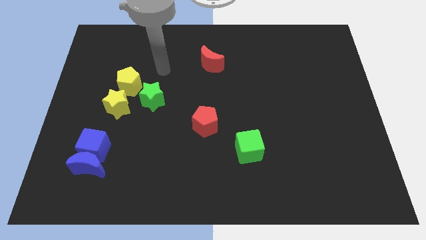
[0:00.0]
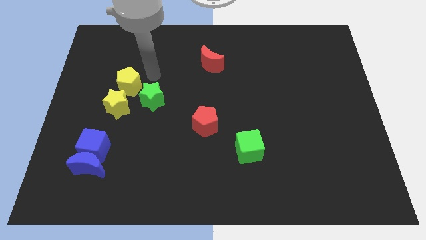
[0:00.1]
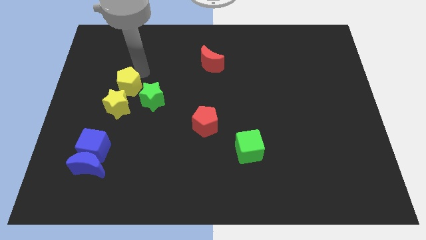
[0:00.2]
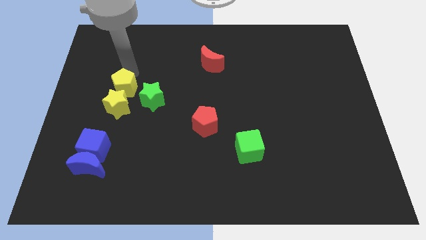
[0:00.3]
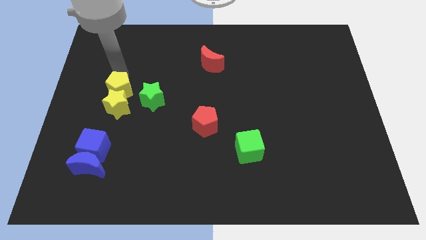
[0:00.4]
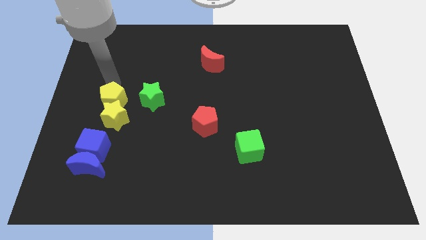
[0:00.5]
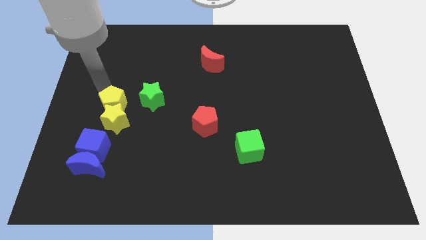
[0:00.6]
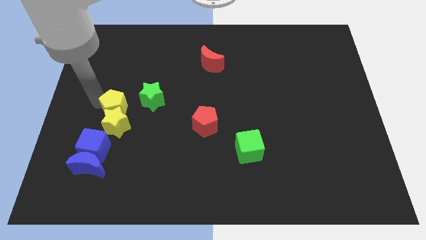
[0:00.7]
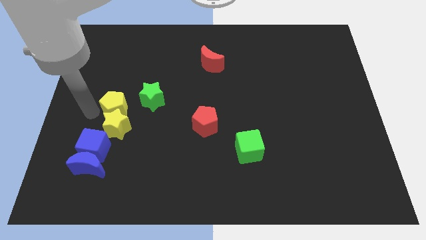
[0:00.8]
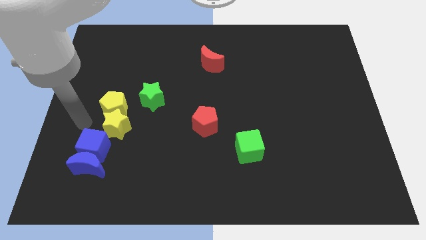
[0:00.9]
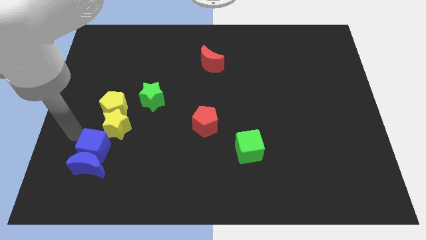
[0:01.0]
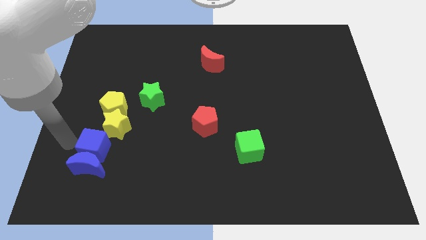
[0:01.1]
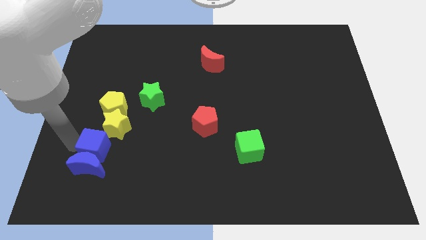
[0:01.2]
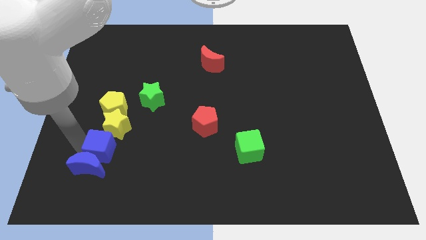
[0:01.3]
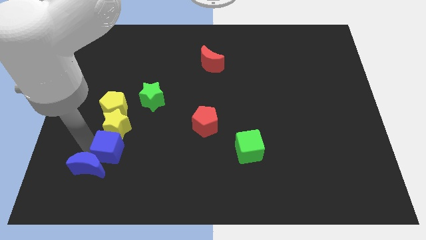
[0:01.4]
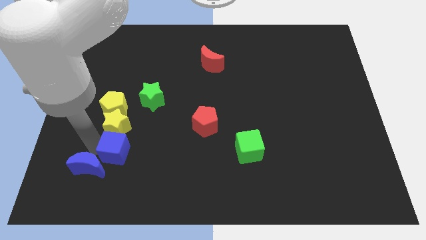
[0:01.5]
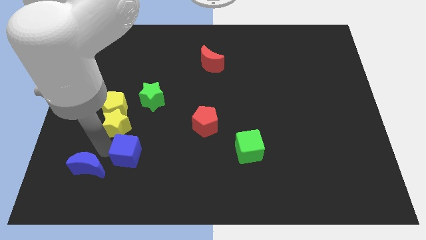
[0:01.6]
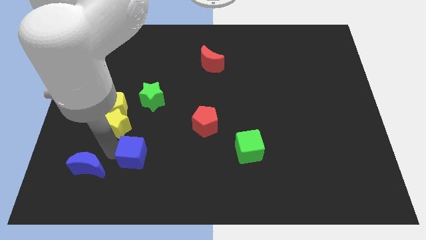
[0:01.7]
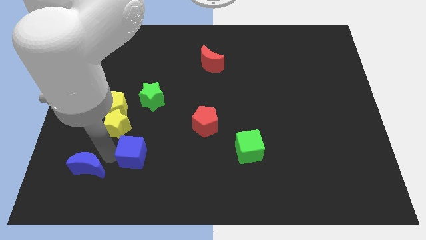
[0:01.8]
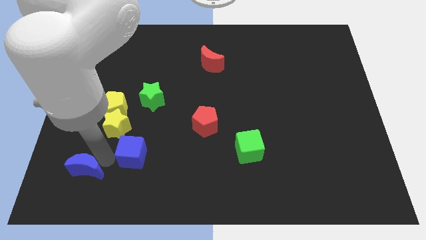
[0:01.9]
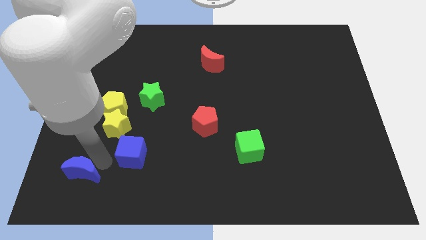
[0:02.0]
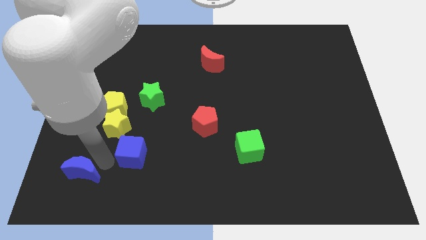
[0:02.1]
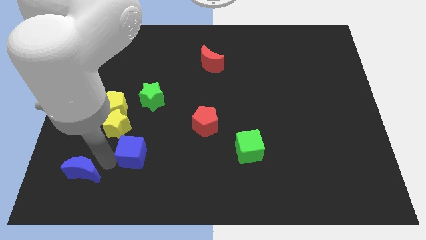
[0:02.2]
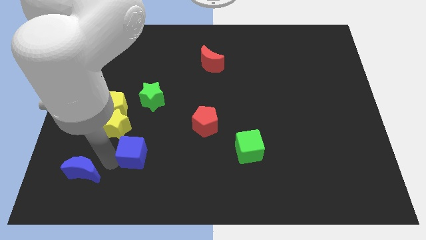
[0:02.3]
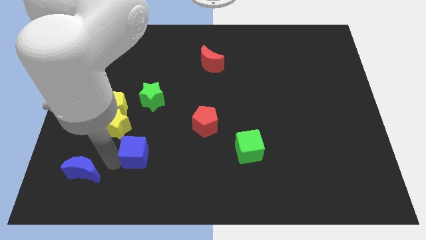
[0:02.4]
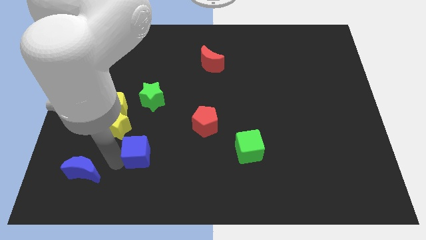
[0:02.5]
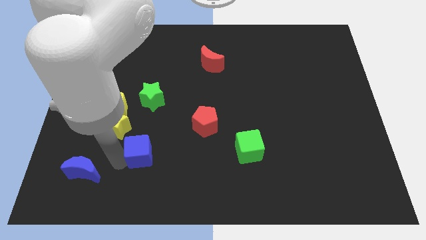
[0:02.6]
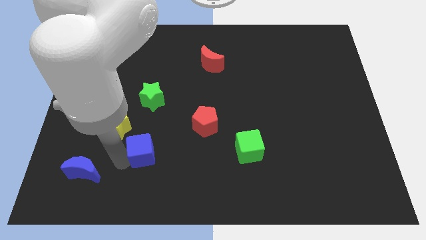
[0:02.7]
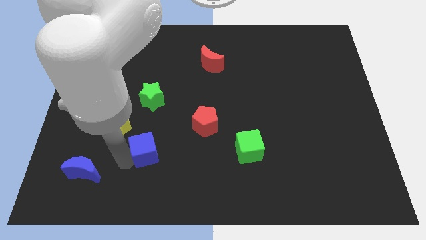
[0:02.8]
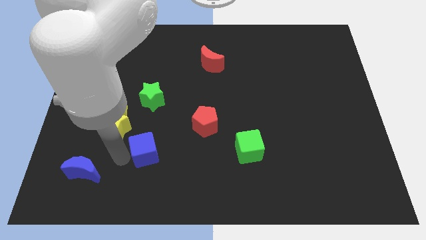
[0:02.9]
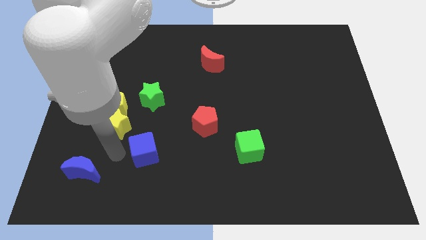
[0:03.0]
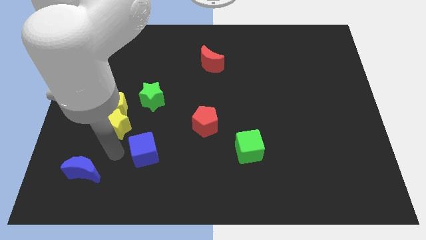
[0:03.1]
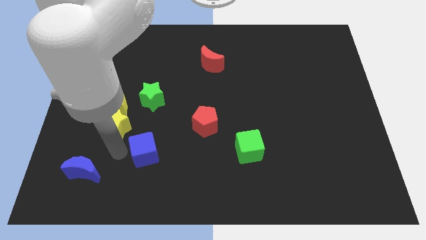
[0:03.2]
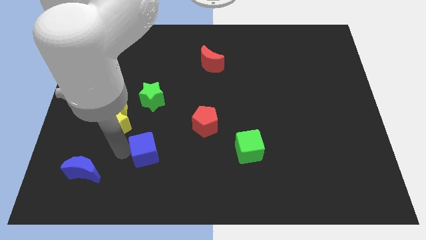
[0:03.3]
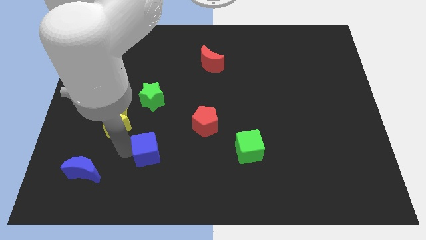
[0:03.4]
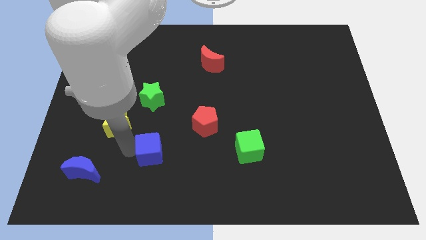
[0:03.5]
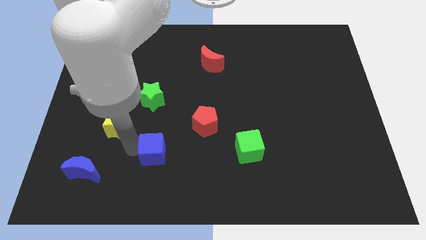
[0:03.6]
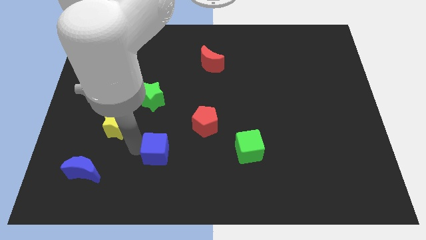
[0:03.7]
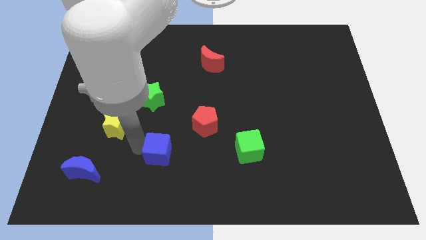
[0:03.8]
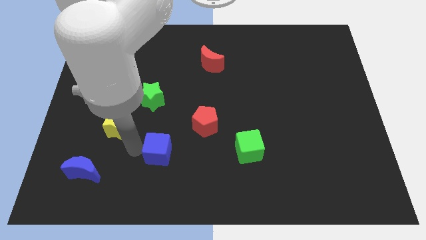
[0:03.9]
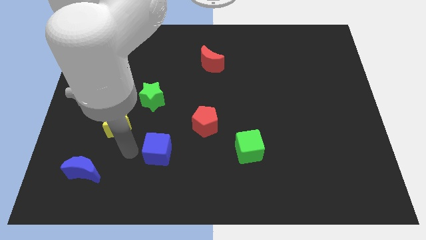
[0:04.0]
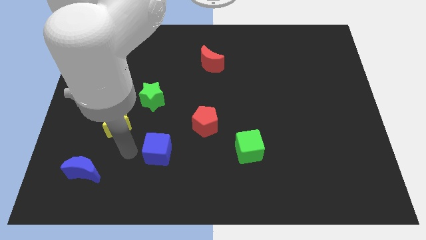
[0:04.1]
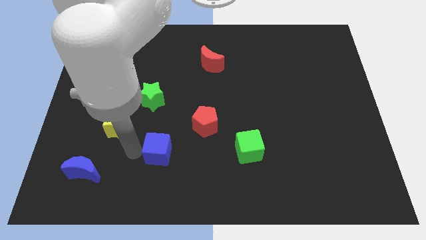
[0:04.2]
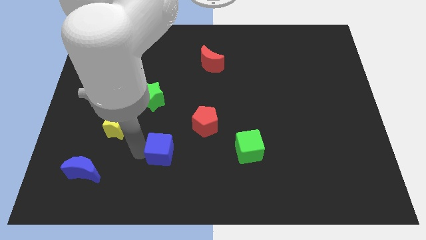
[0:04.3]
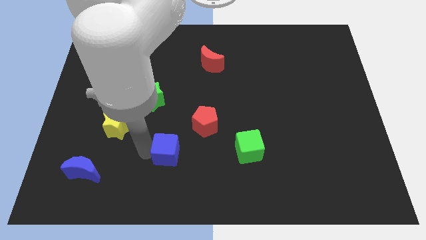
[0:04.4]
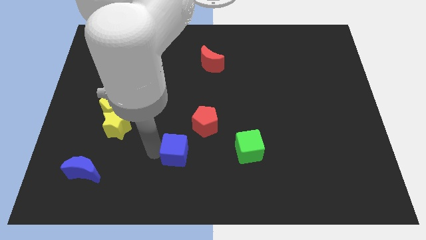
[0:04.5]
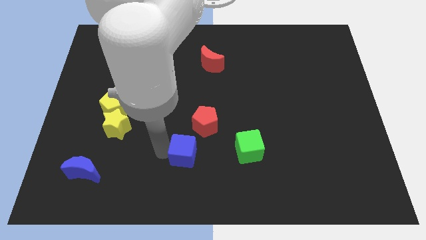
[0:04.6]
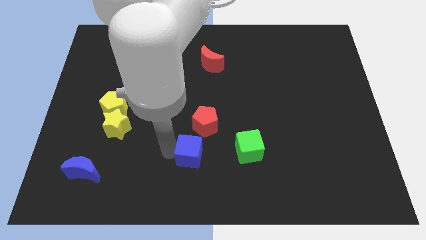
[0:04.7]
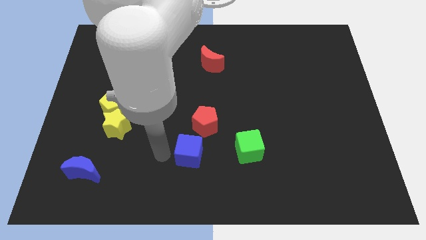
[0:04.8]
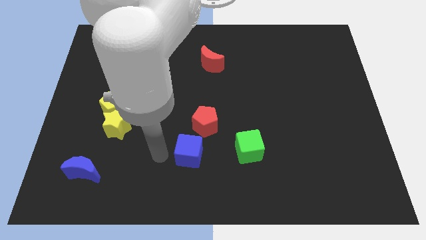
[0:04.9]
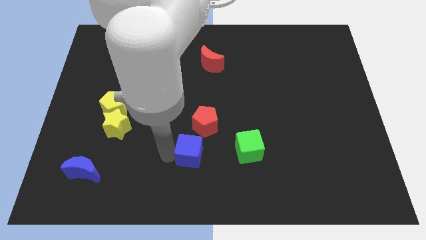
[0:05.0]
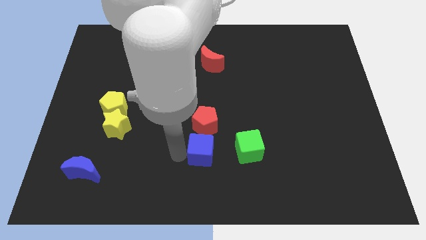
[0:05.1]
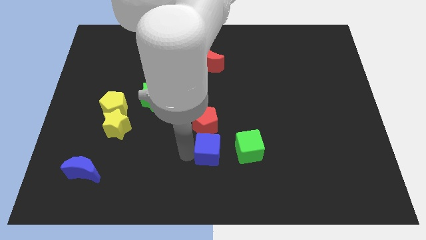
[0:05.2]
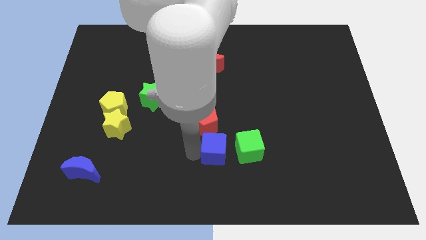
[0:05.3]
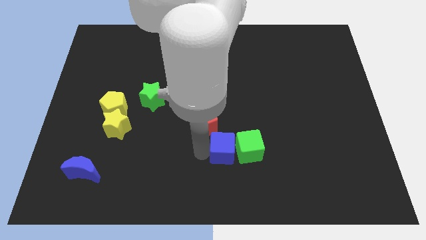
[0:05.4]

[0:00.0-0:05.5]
move the blue cube to the green cube

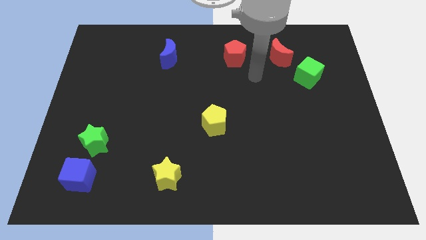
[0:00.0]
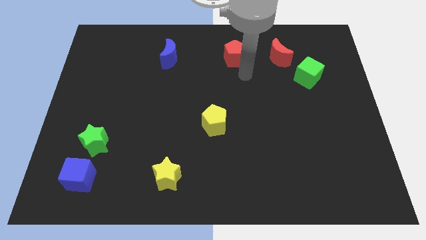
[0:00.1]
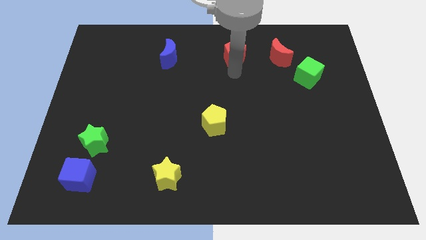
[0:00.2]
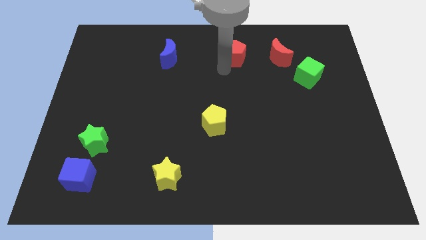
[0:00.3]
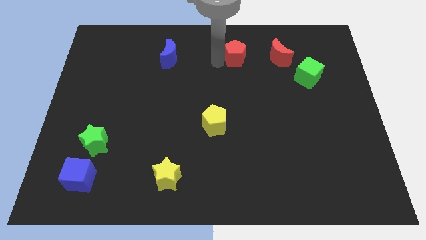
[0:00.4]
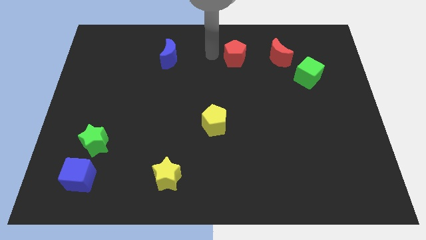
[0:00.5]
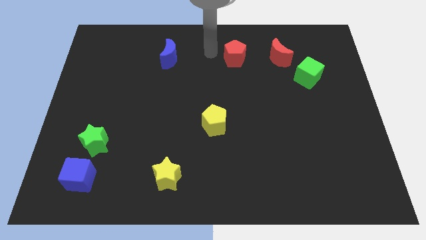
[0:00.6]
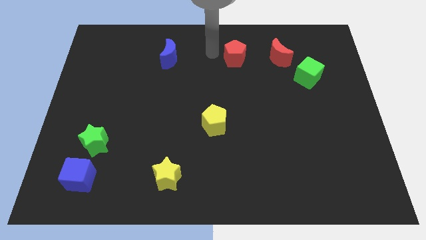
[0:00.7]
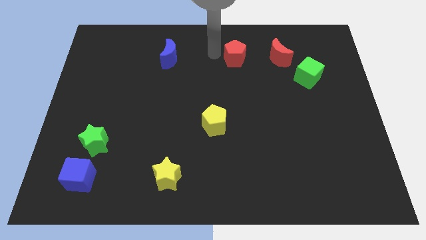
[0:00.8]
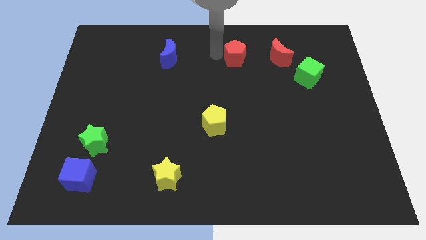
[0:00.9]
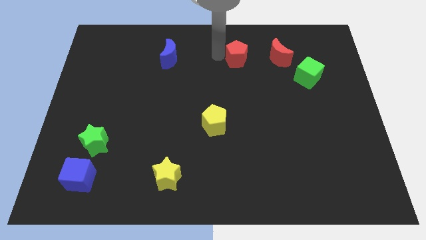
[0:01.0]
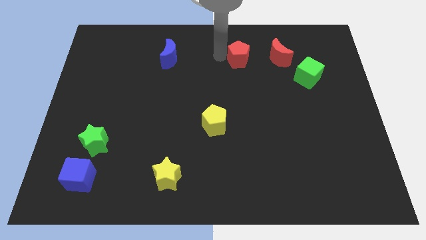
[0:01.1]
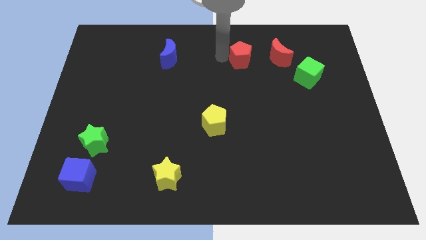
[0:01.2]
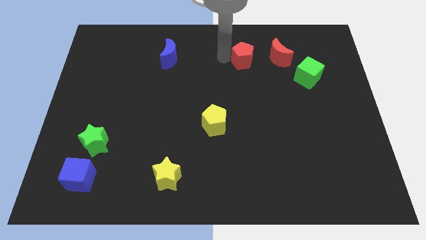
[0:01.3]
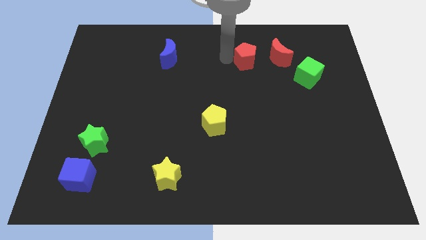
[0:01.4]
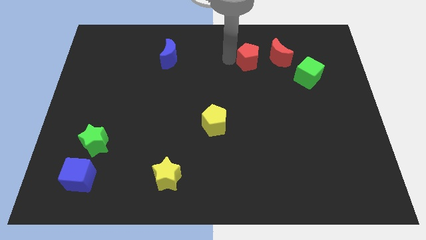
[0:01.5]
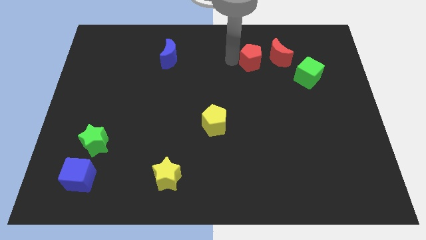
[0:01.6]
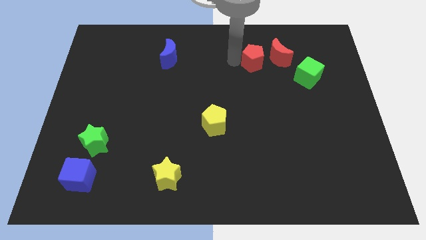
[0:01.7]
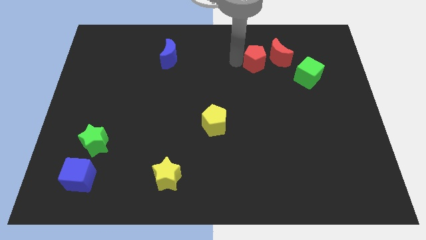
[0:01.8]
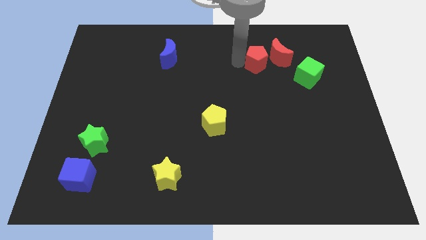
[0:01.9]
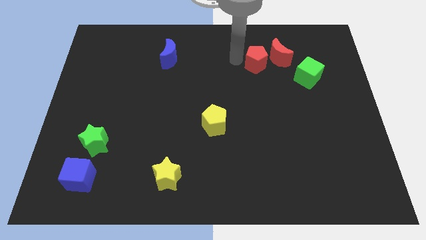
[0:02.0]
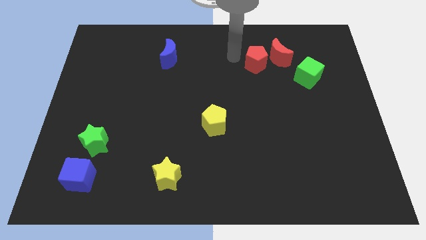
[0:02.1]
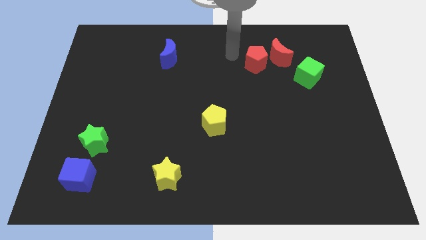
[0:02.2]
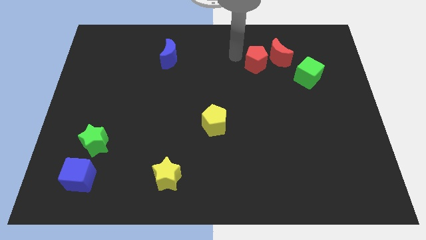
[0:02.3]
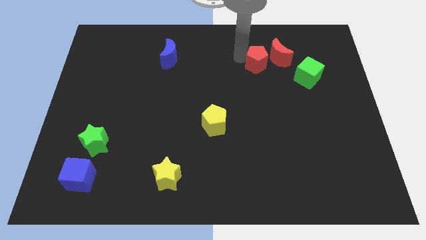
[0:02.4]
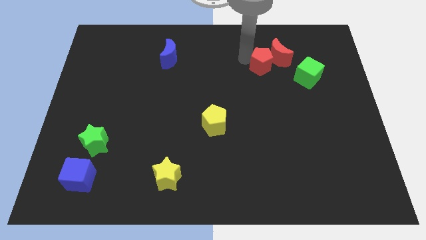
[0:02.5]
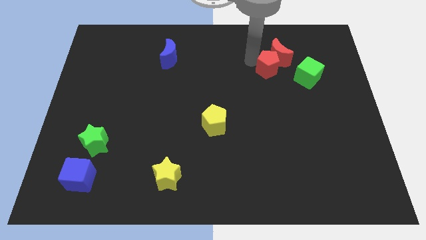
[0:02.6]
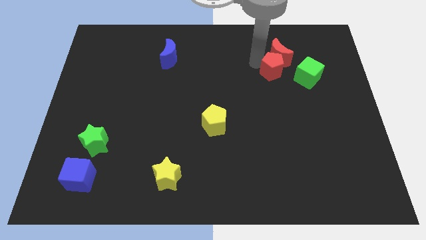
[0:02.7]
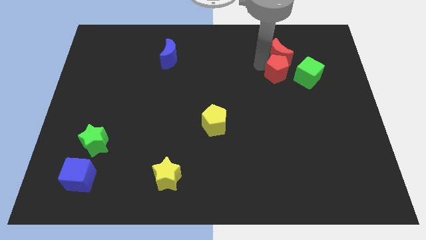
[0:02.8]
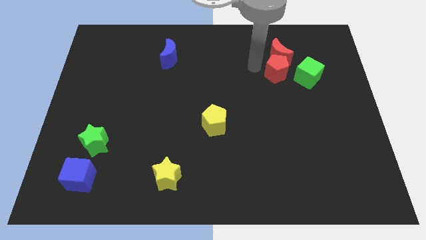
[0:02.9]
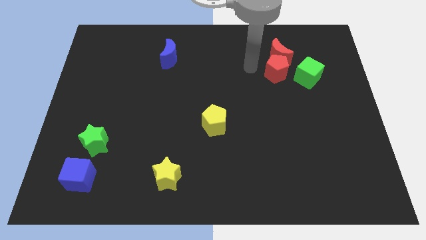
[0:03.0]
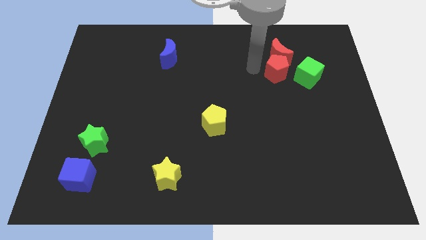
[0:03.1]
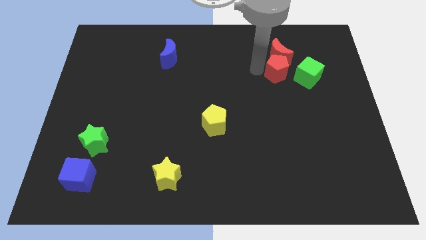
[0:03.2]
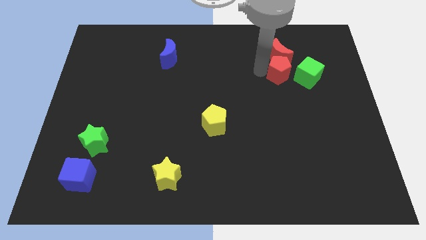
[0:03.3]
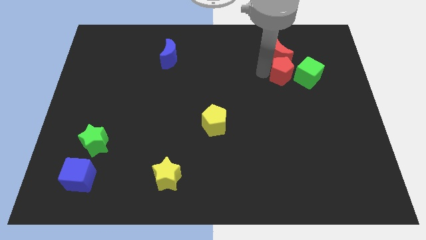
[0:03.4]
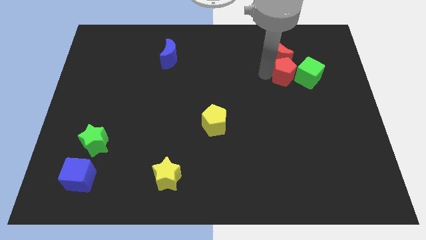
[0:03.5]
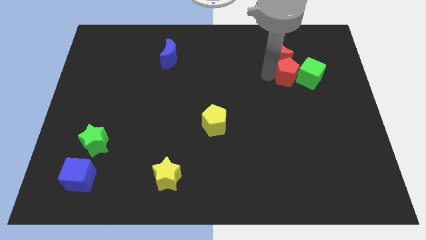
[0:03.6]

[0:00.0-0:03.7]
put the red pentagon next to the green cube
